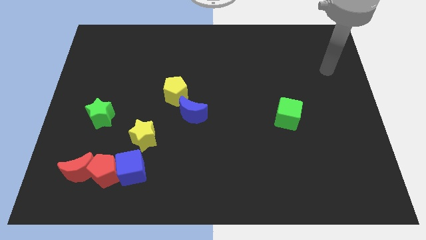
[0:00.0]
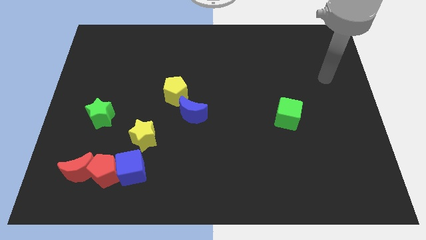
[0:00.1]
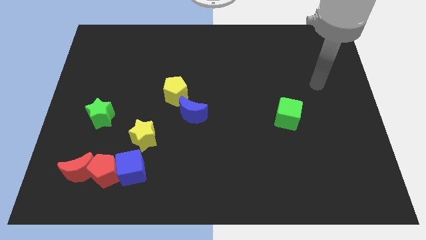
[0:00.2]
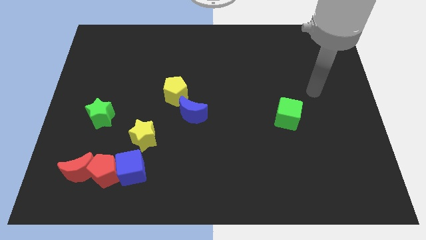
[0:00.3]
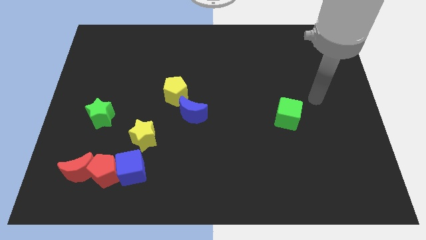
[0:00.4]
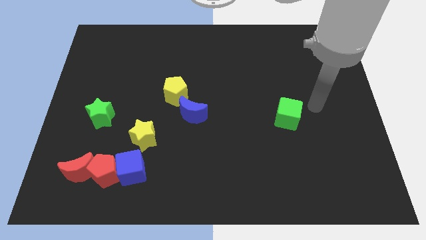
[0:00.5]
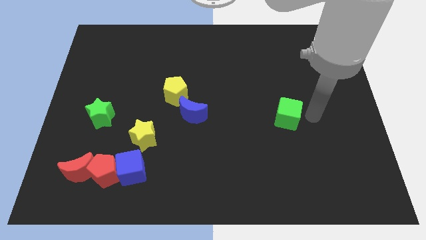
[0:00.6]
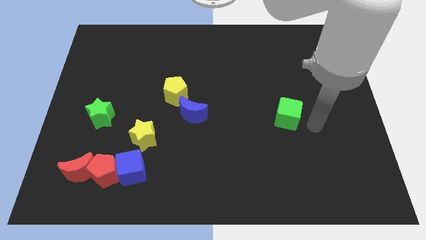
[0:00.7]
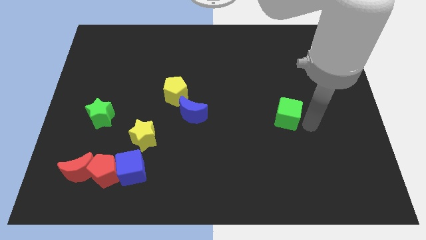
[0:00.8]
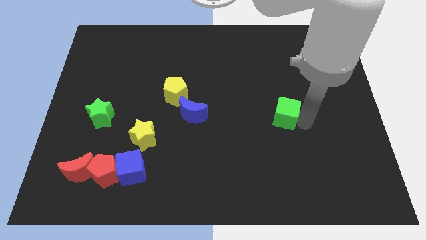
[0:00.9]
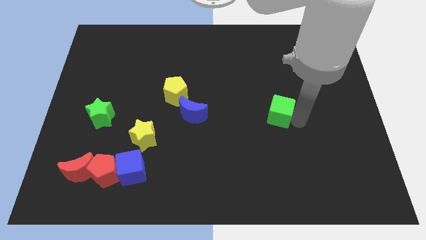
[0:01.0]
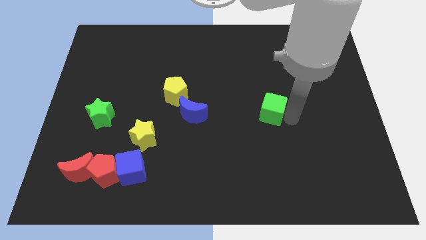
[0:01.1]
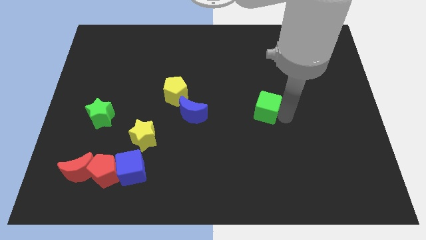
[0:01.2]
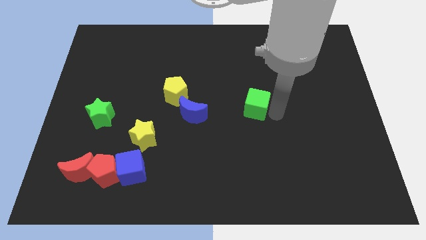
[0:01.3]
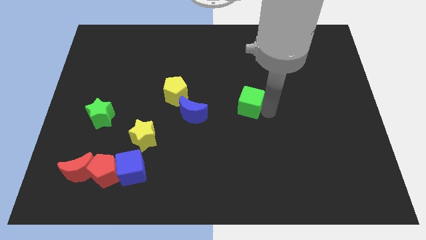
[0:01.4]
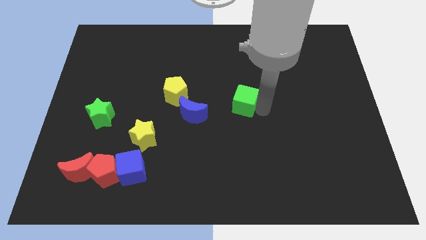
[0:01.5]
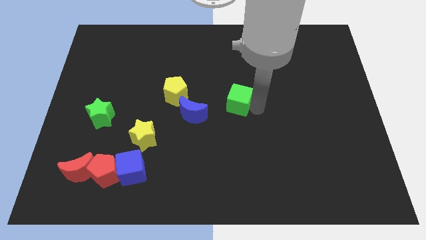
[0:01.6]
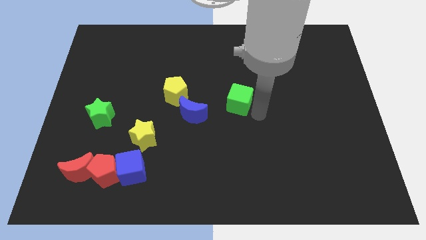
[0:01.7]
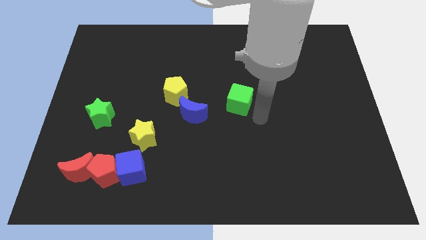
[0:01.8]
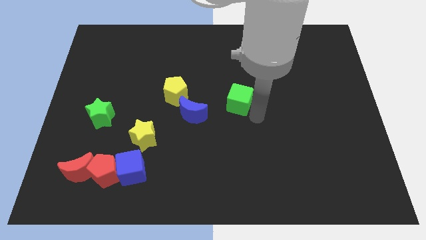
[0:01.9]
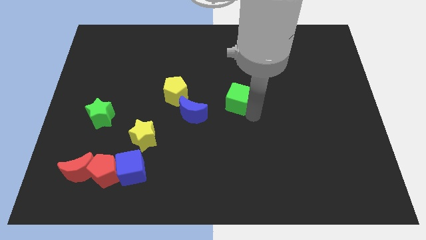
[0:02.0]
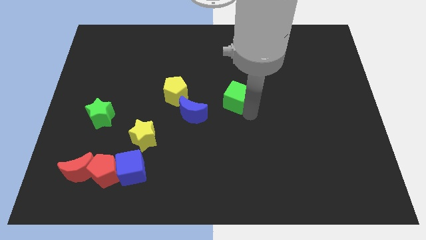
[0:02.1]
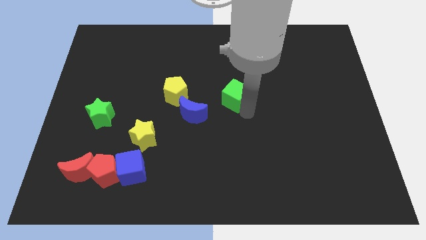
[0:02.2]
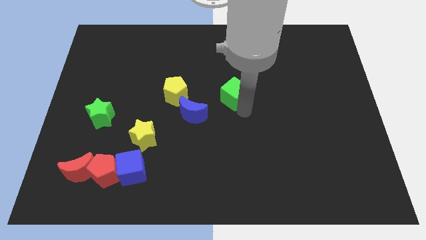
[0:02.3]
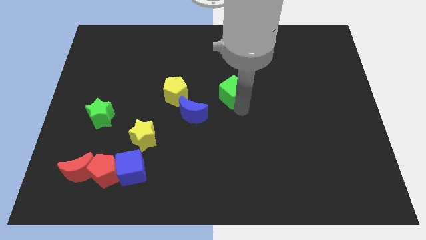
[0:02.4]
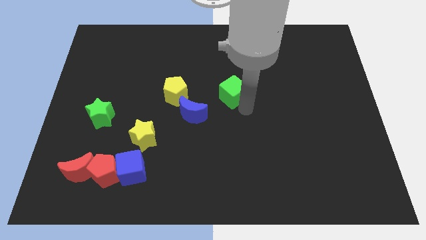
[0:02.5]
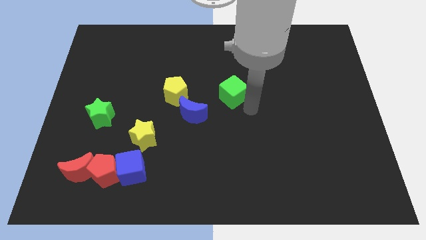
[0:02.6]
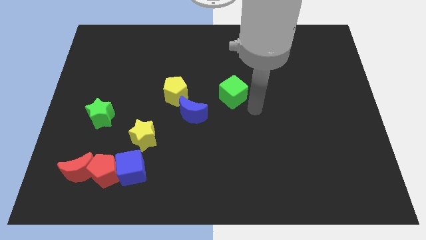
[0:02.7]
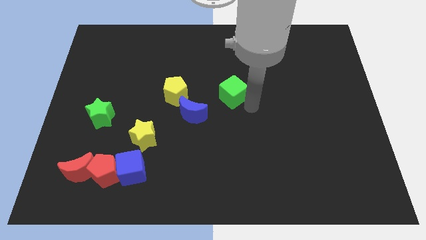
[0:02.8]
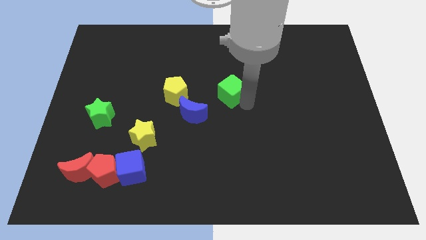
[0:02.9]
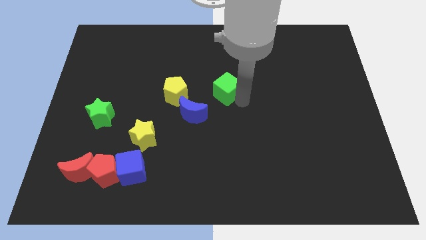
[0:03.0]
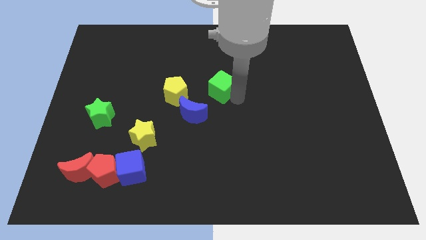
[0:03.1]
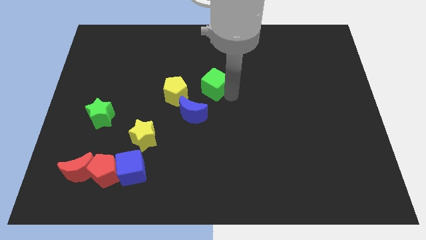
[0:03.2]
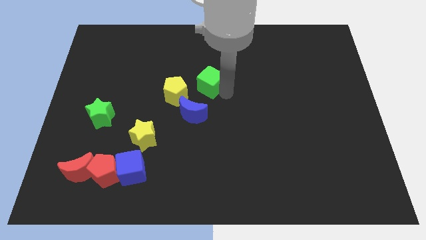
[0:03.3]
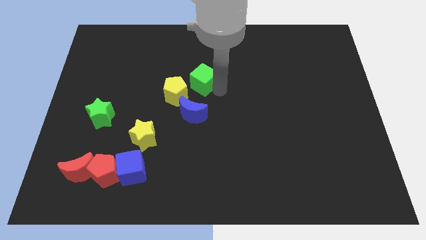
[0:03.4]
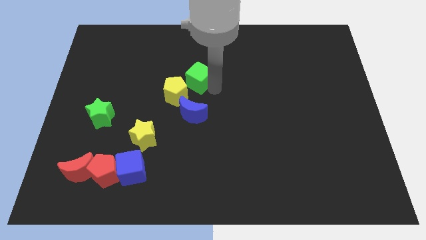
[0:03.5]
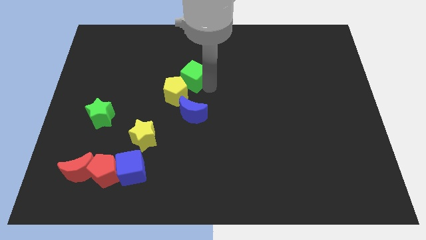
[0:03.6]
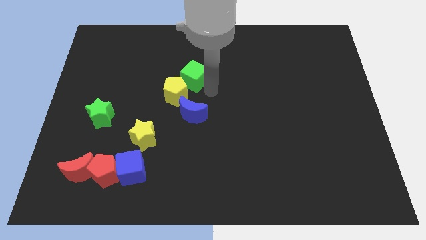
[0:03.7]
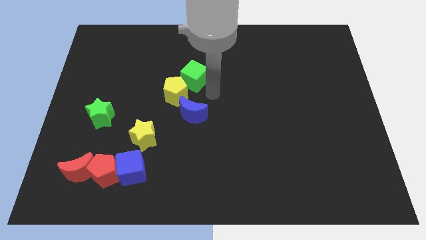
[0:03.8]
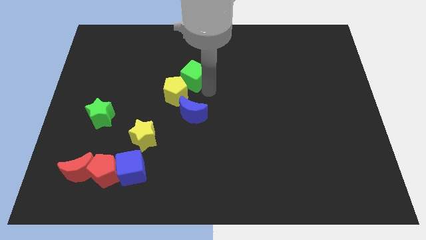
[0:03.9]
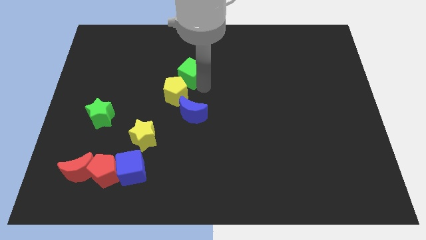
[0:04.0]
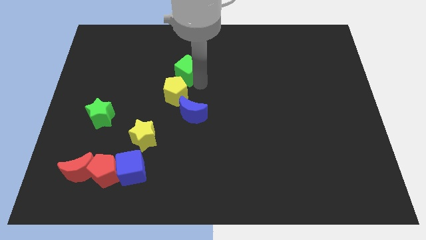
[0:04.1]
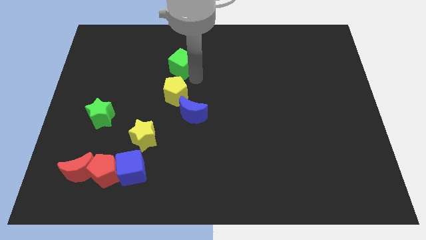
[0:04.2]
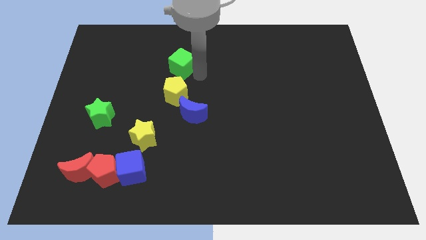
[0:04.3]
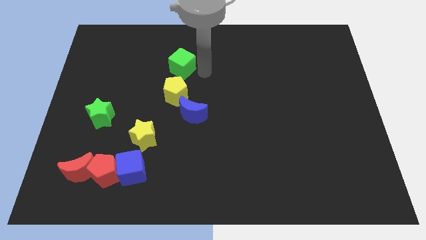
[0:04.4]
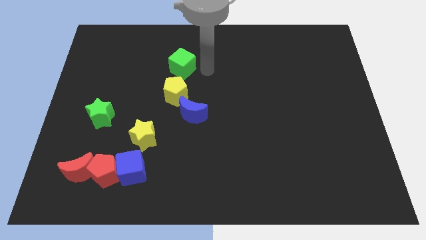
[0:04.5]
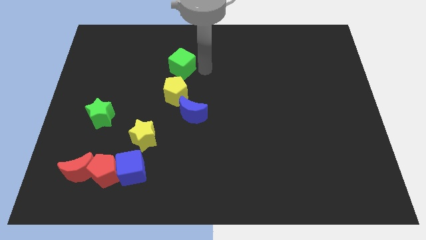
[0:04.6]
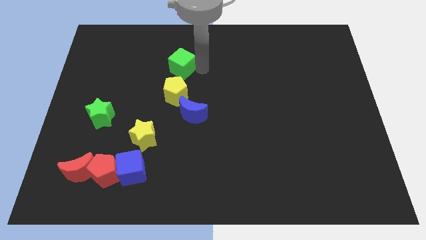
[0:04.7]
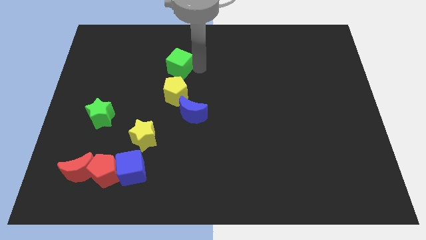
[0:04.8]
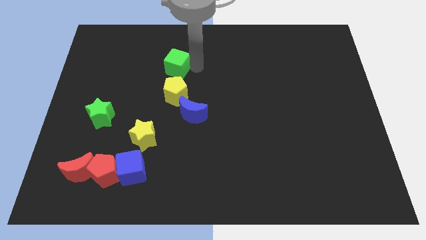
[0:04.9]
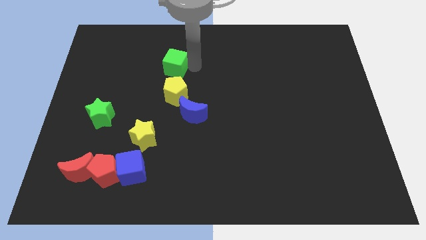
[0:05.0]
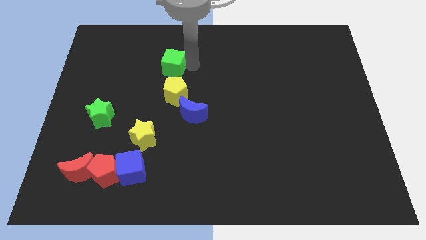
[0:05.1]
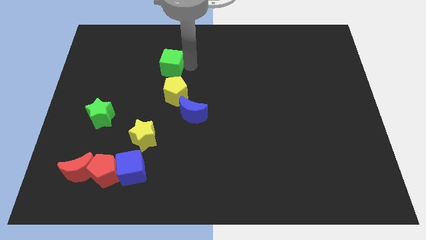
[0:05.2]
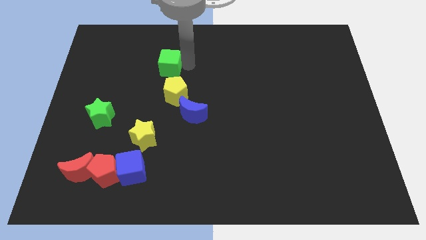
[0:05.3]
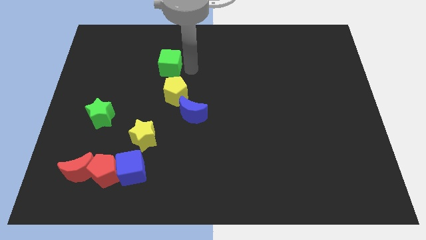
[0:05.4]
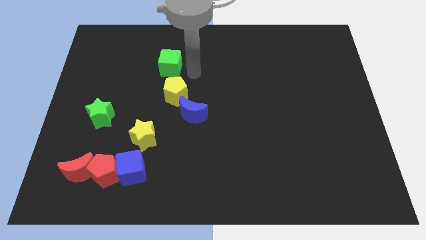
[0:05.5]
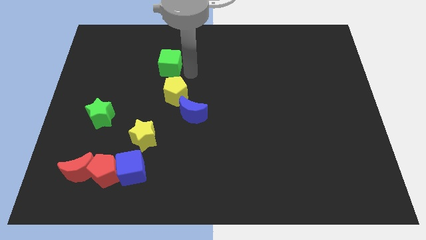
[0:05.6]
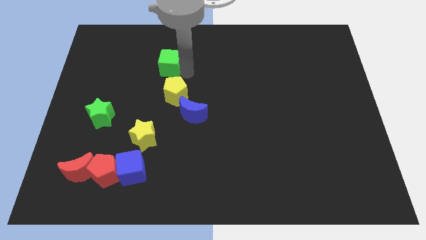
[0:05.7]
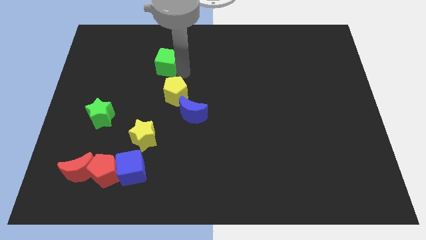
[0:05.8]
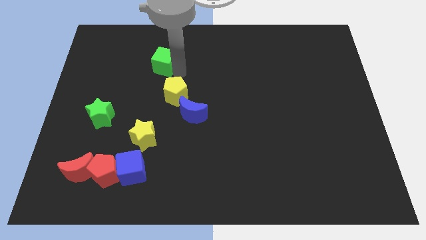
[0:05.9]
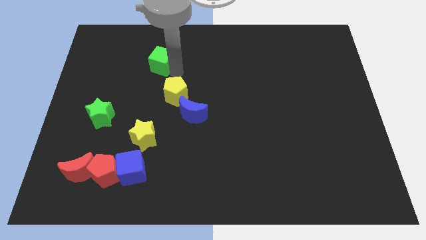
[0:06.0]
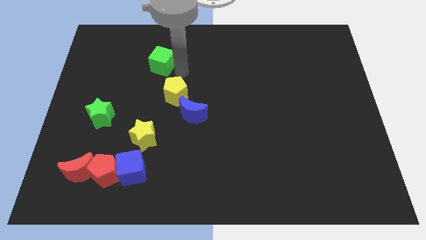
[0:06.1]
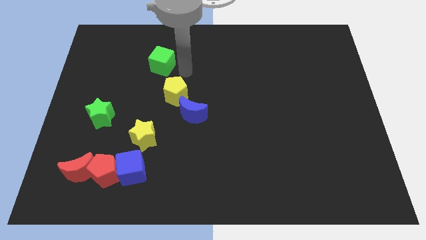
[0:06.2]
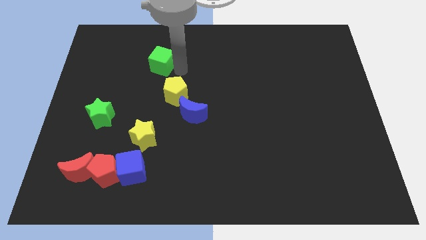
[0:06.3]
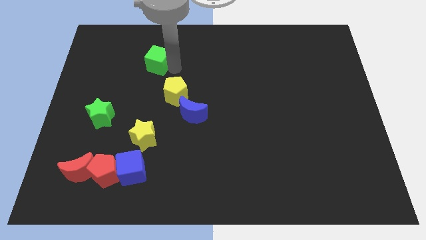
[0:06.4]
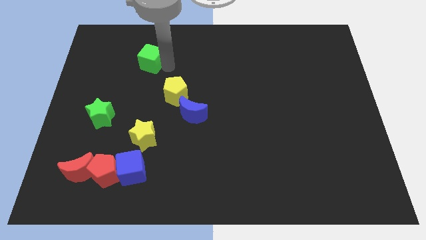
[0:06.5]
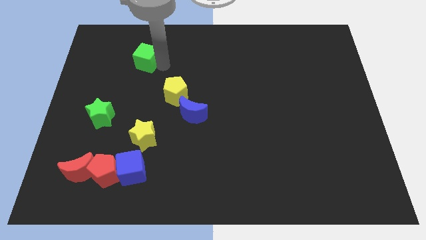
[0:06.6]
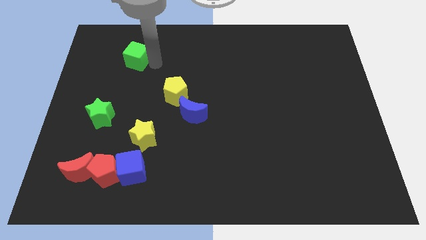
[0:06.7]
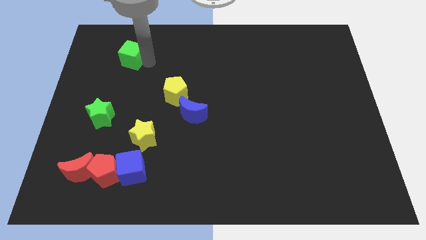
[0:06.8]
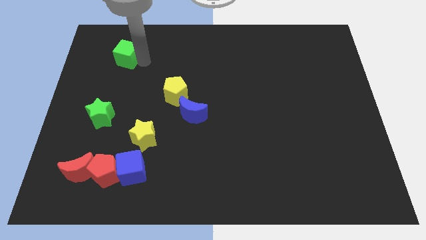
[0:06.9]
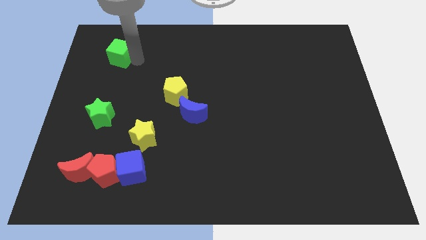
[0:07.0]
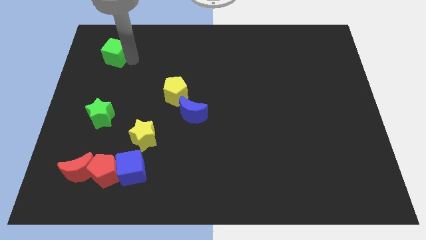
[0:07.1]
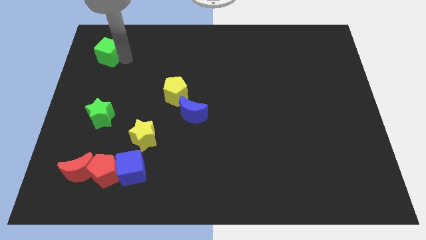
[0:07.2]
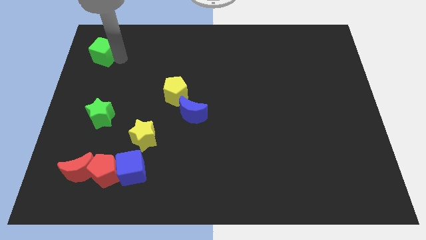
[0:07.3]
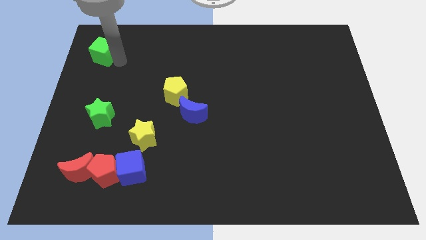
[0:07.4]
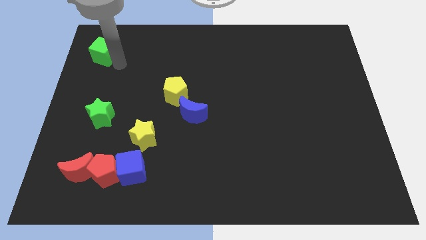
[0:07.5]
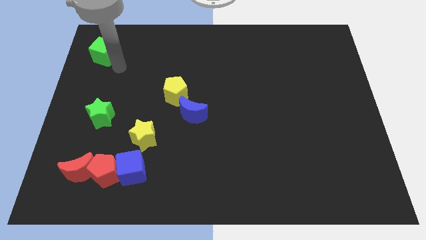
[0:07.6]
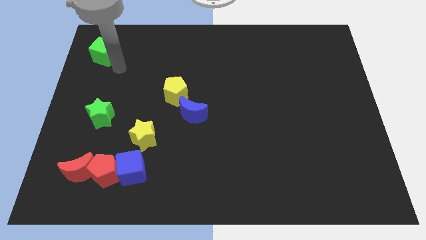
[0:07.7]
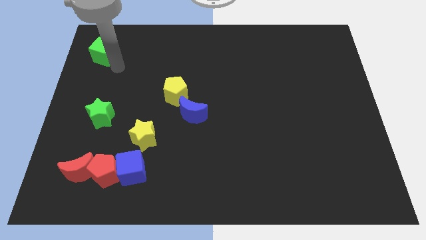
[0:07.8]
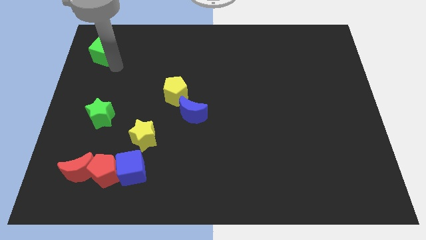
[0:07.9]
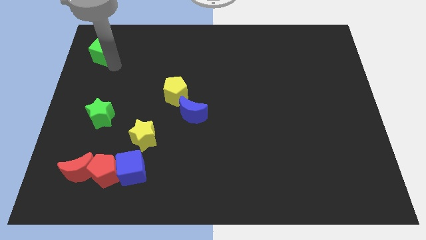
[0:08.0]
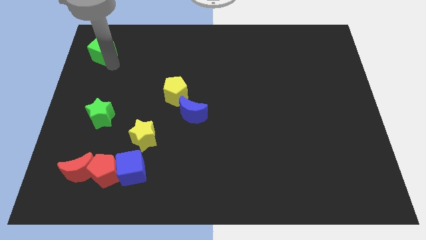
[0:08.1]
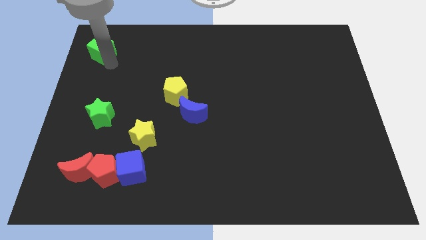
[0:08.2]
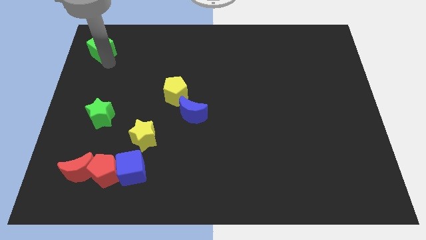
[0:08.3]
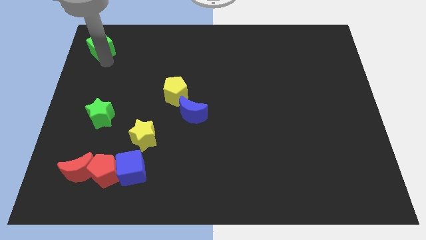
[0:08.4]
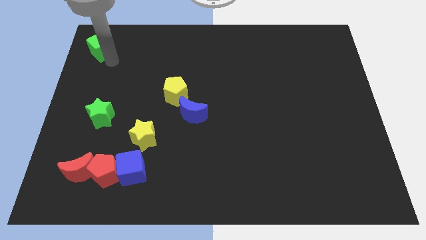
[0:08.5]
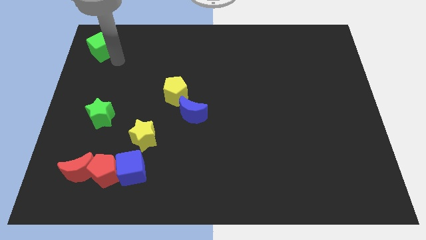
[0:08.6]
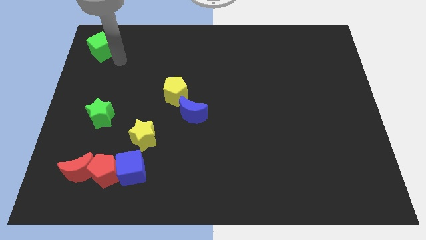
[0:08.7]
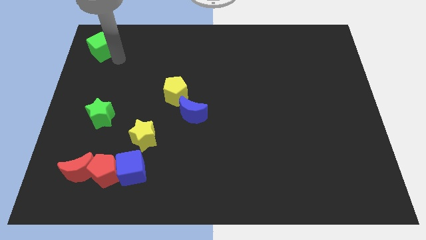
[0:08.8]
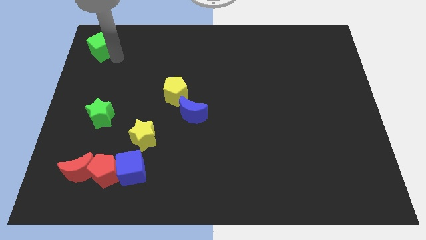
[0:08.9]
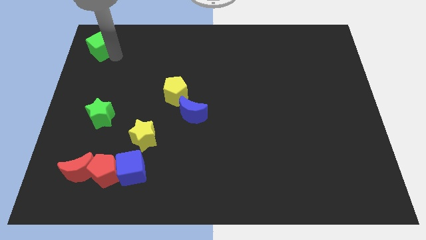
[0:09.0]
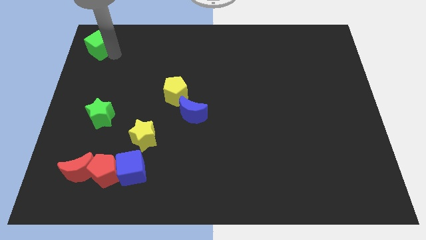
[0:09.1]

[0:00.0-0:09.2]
push the green cube to the top left corner
